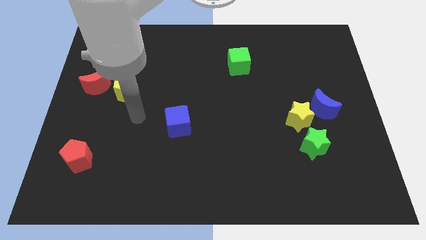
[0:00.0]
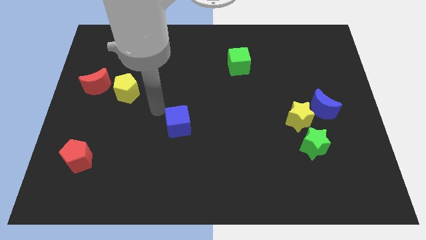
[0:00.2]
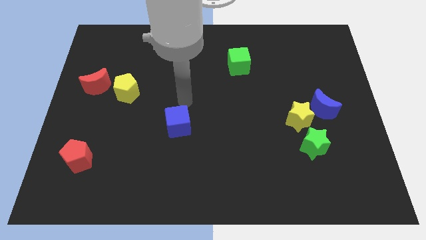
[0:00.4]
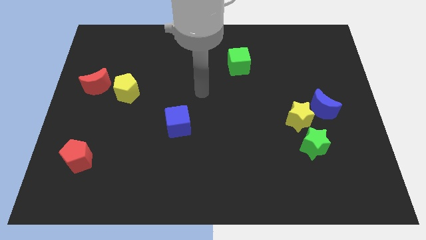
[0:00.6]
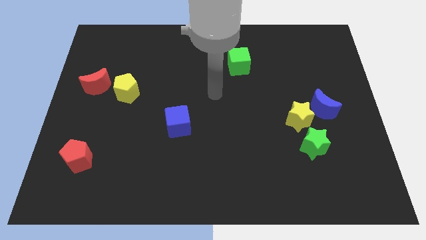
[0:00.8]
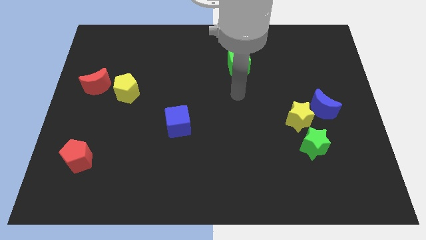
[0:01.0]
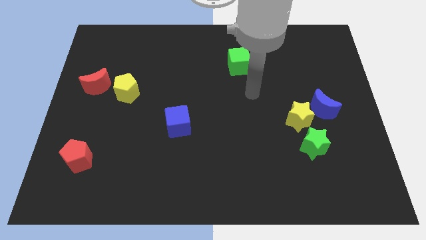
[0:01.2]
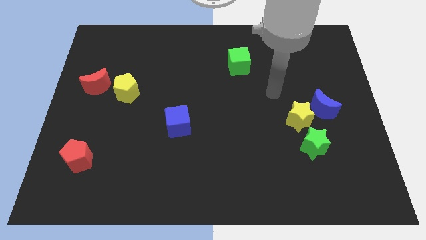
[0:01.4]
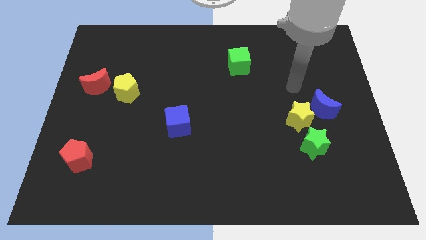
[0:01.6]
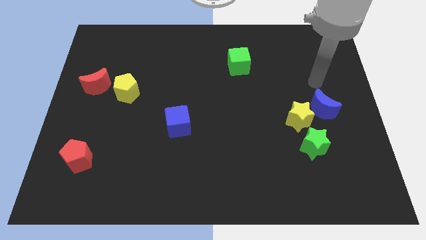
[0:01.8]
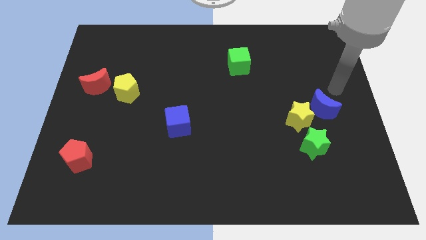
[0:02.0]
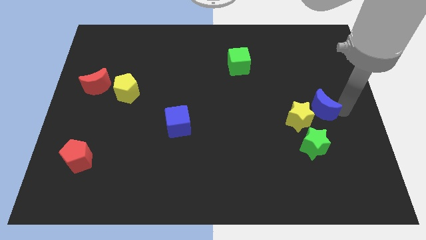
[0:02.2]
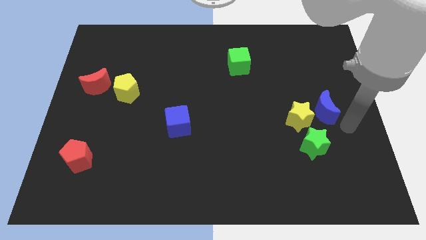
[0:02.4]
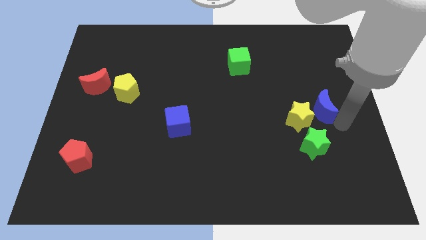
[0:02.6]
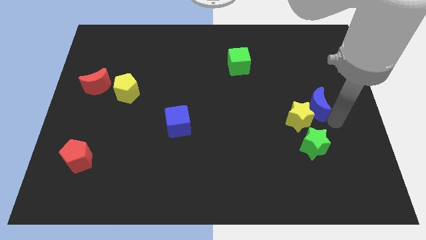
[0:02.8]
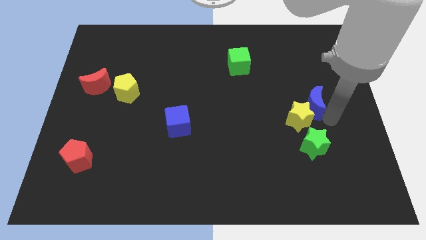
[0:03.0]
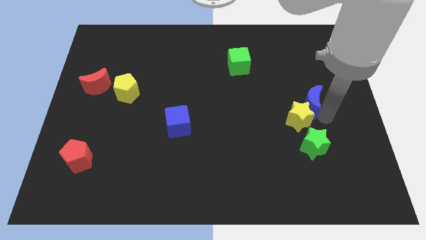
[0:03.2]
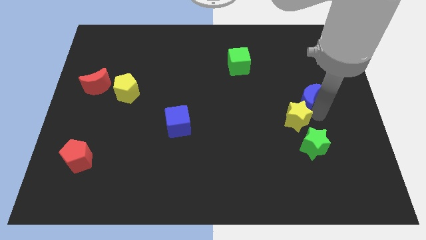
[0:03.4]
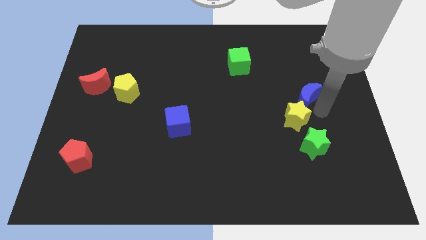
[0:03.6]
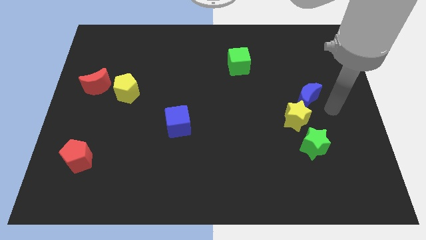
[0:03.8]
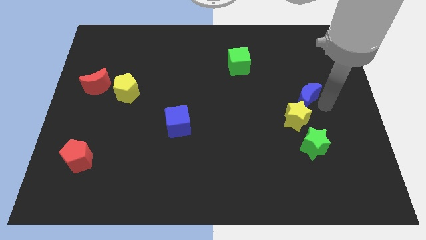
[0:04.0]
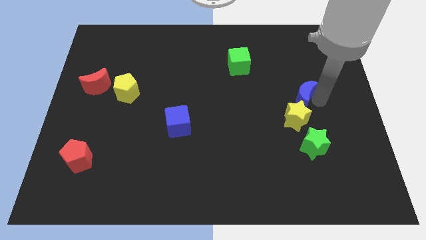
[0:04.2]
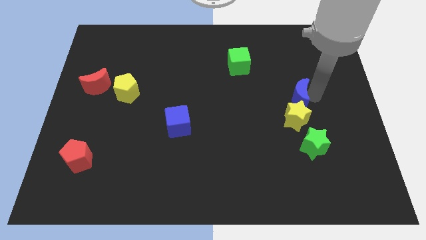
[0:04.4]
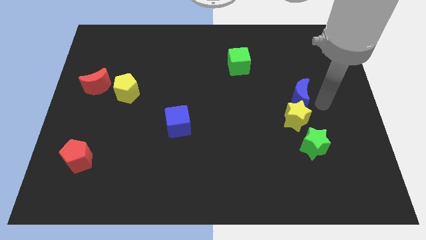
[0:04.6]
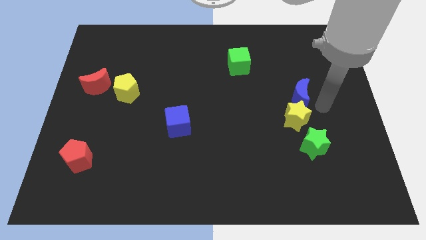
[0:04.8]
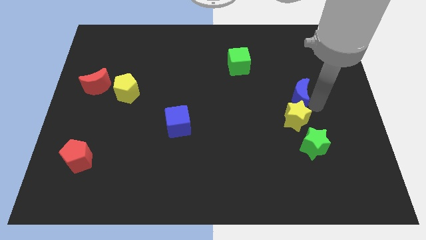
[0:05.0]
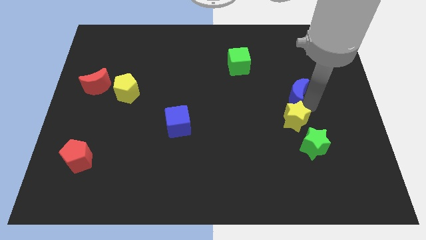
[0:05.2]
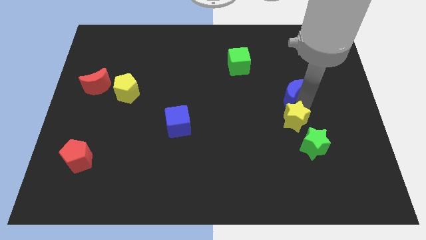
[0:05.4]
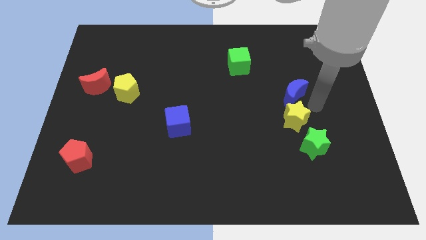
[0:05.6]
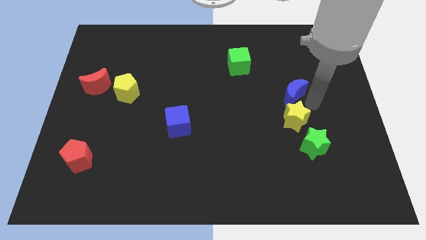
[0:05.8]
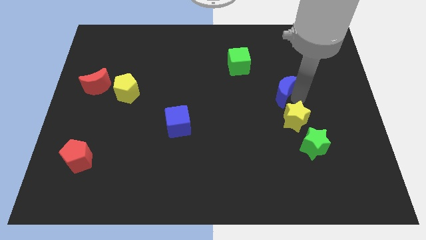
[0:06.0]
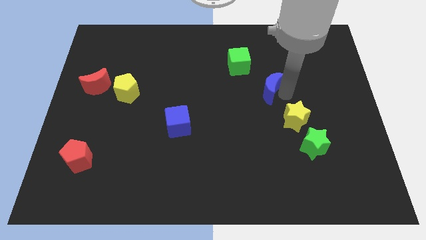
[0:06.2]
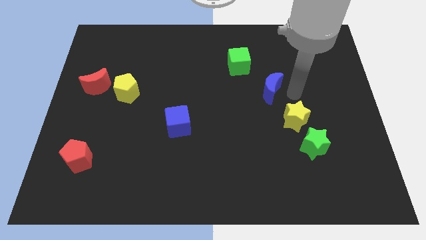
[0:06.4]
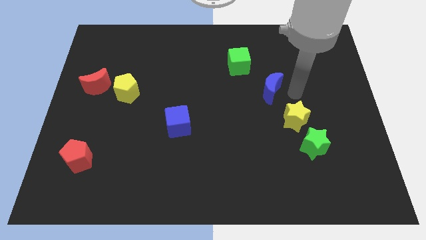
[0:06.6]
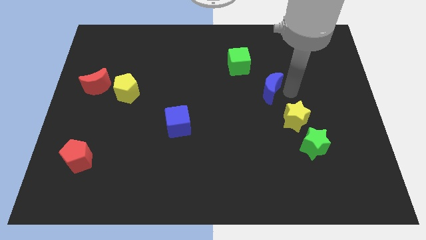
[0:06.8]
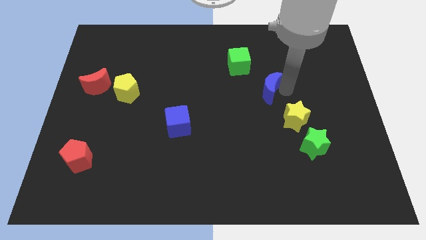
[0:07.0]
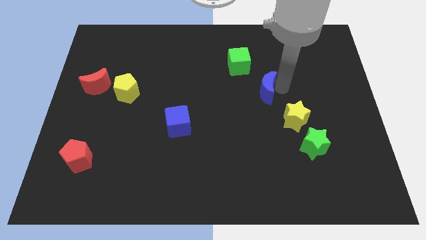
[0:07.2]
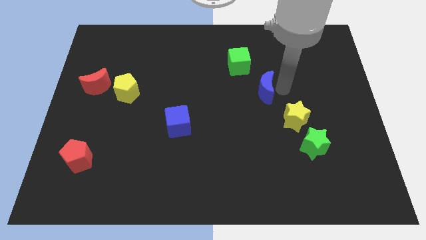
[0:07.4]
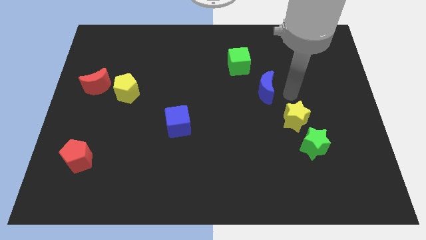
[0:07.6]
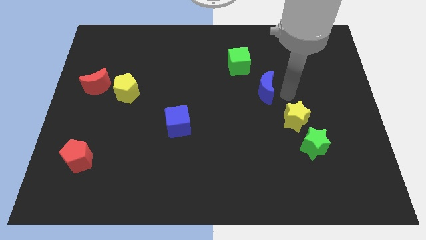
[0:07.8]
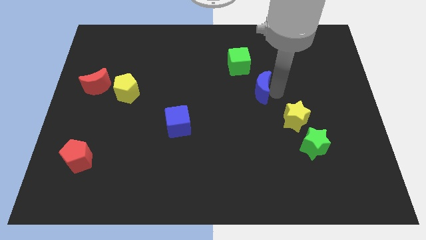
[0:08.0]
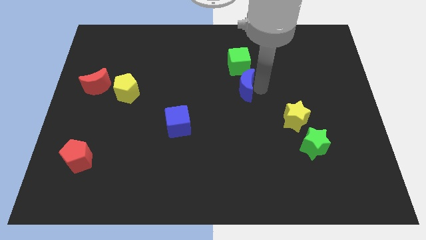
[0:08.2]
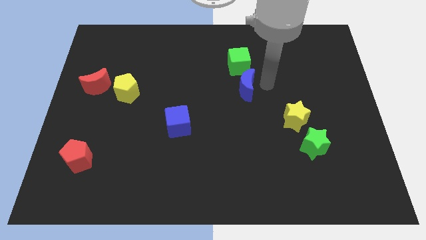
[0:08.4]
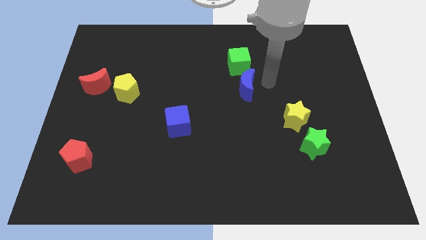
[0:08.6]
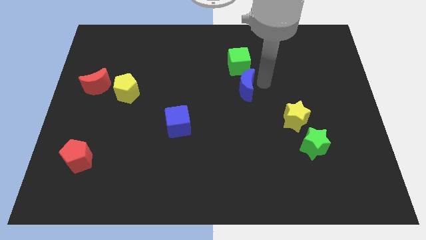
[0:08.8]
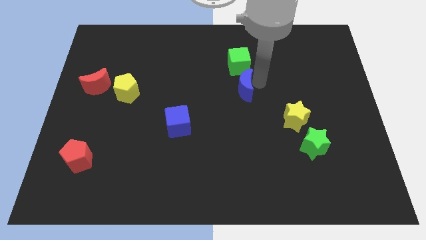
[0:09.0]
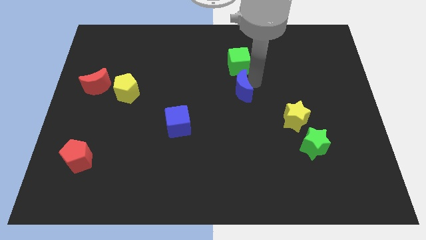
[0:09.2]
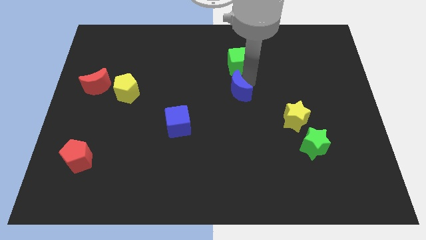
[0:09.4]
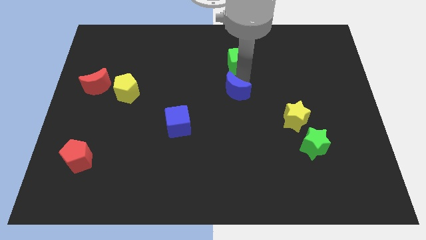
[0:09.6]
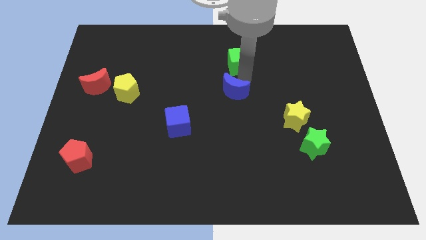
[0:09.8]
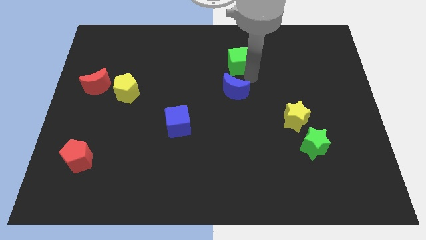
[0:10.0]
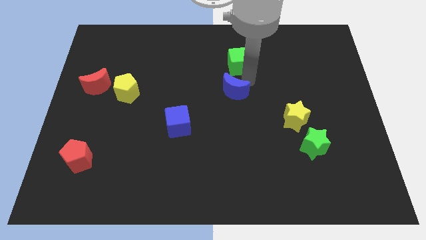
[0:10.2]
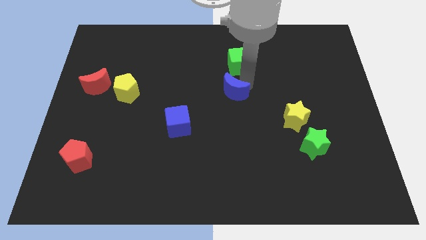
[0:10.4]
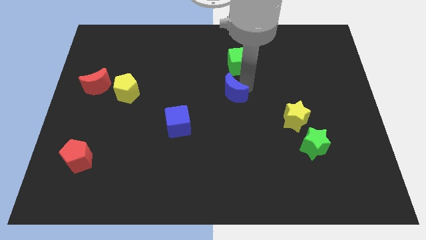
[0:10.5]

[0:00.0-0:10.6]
slide the blue moon to the left

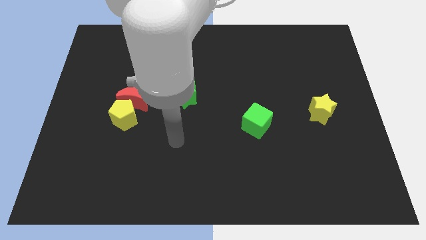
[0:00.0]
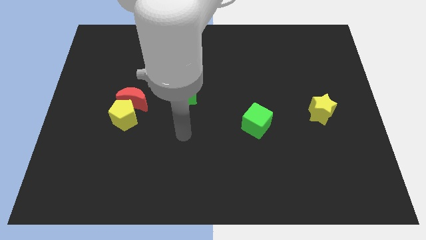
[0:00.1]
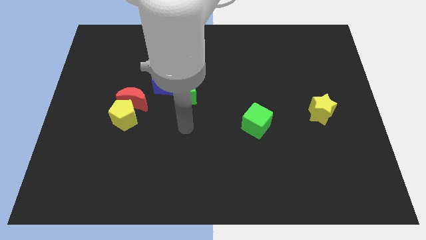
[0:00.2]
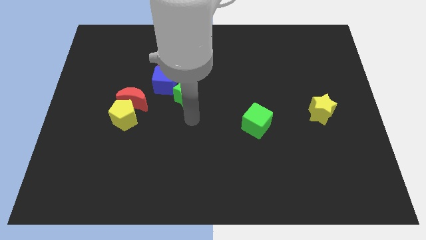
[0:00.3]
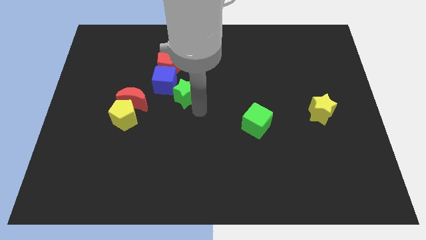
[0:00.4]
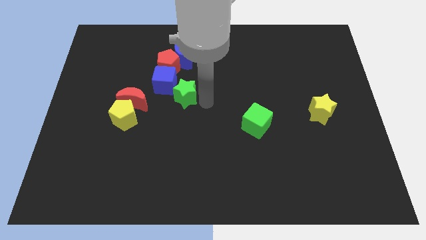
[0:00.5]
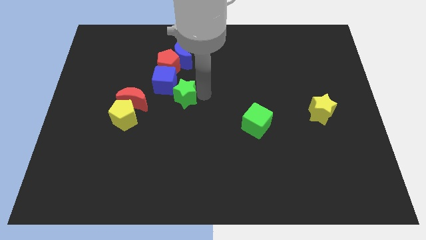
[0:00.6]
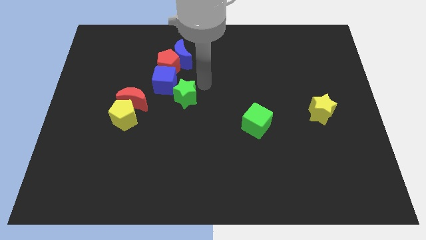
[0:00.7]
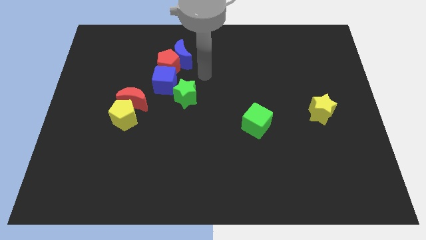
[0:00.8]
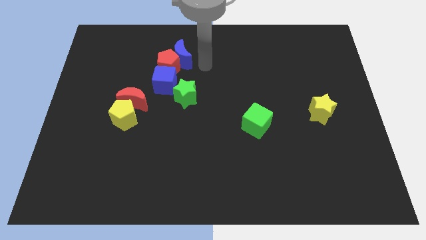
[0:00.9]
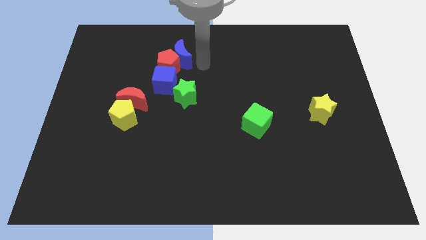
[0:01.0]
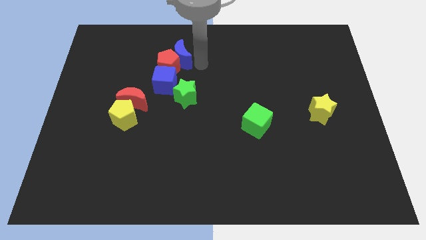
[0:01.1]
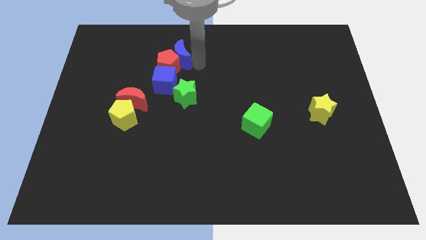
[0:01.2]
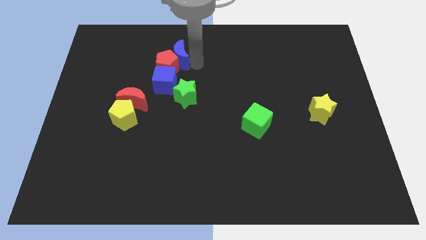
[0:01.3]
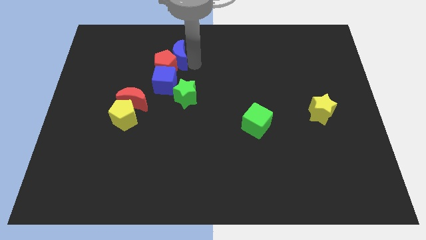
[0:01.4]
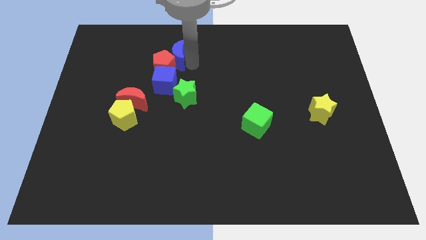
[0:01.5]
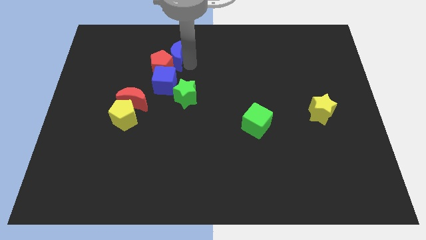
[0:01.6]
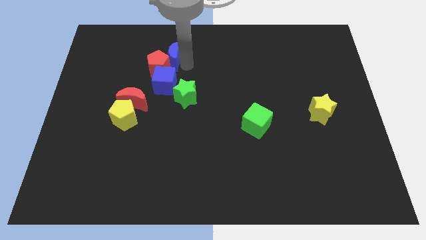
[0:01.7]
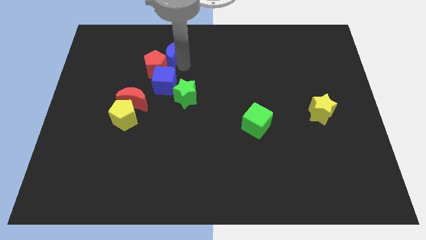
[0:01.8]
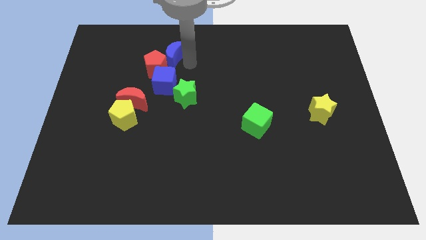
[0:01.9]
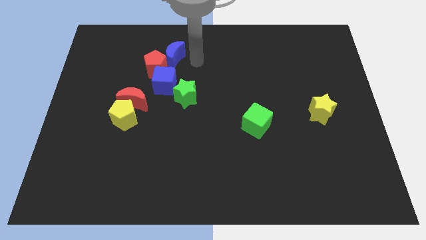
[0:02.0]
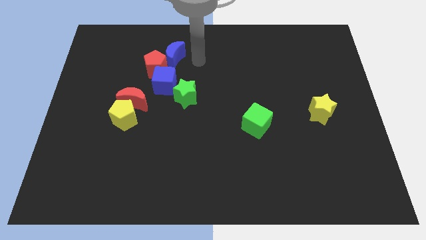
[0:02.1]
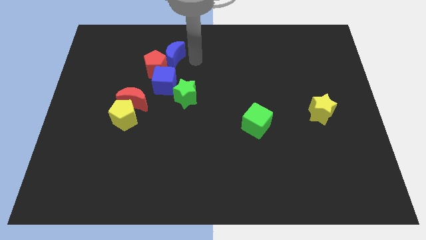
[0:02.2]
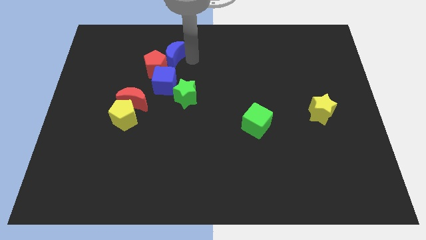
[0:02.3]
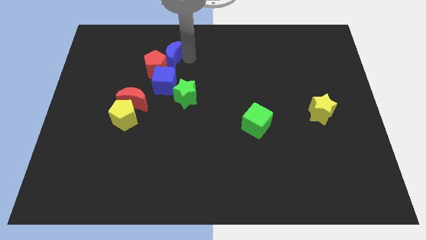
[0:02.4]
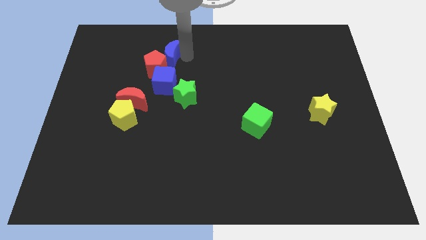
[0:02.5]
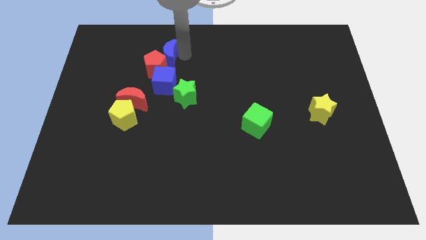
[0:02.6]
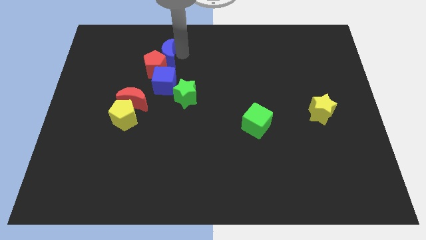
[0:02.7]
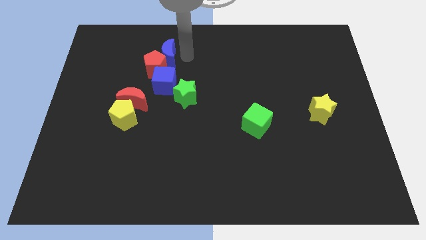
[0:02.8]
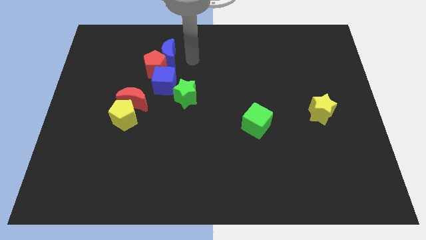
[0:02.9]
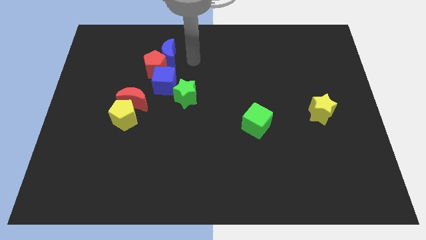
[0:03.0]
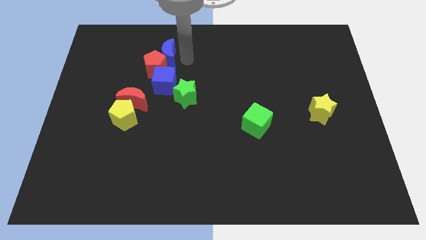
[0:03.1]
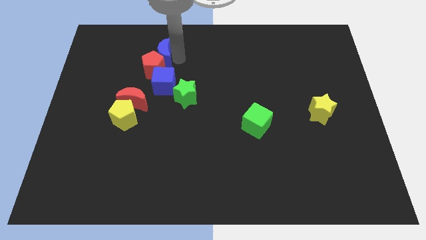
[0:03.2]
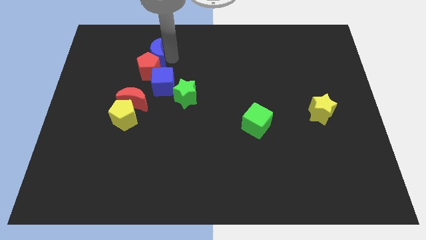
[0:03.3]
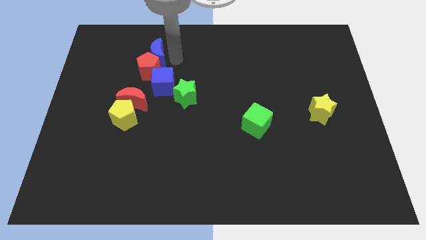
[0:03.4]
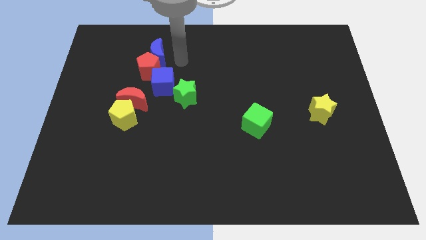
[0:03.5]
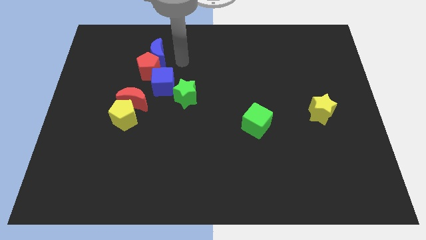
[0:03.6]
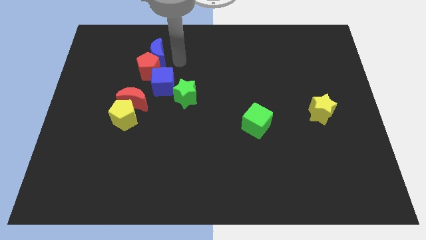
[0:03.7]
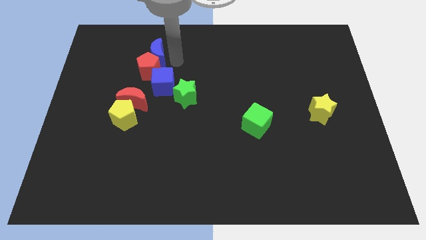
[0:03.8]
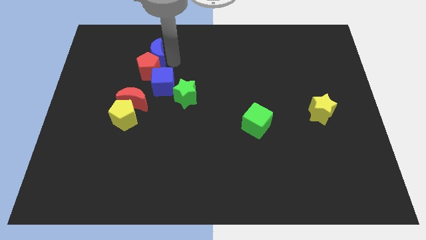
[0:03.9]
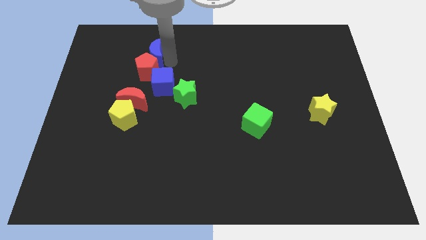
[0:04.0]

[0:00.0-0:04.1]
slide the blue moon a bit to the left
